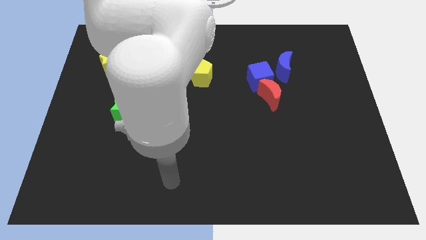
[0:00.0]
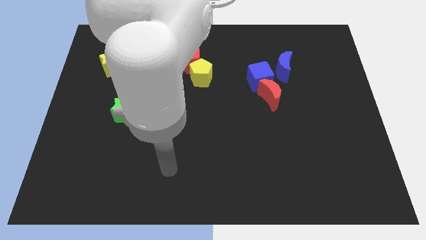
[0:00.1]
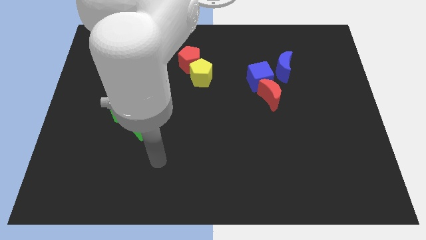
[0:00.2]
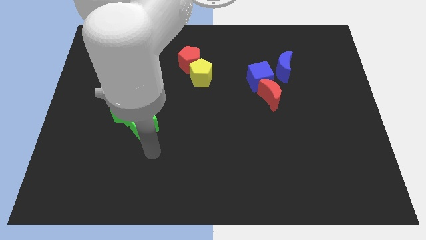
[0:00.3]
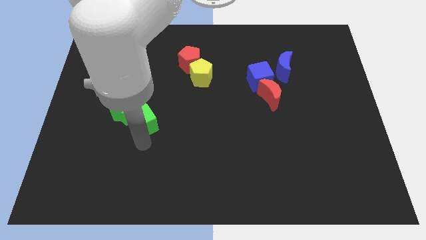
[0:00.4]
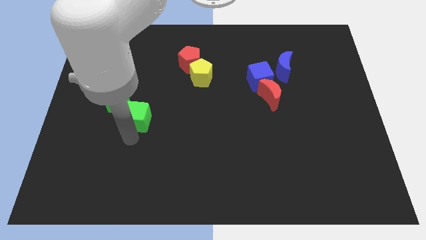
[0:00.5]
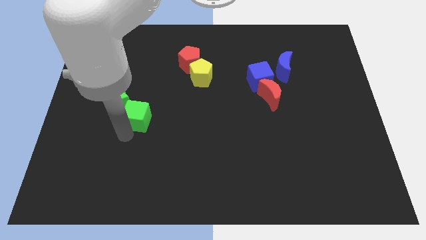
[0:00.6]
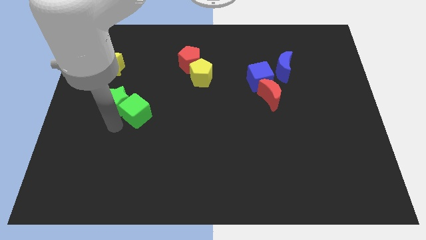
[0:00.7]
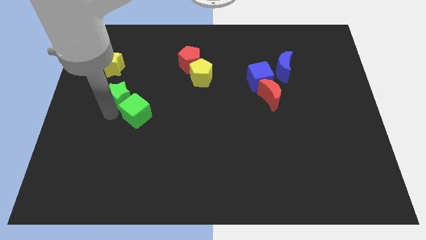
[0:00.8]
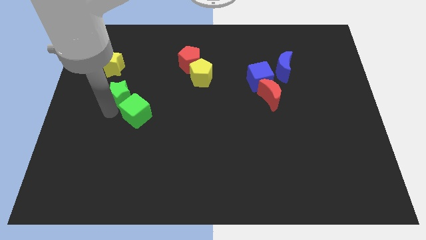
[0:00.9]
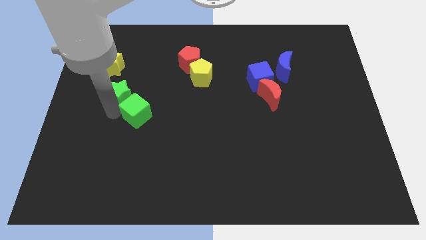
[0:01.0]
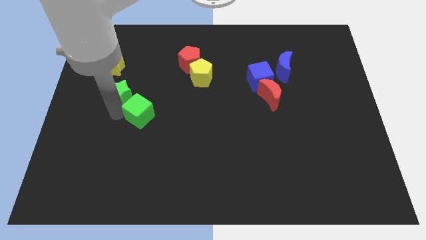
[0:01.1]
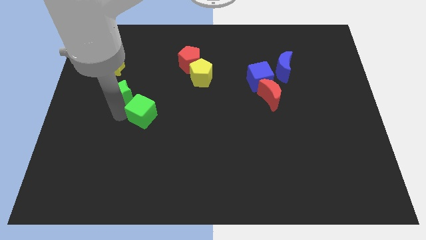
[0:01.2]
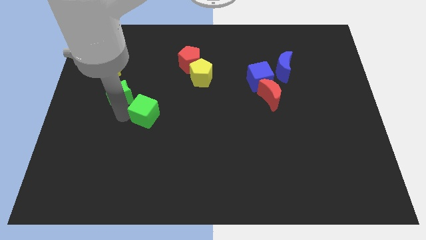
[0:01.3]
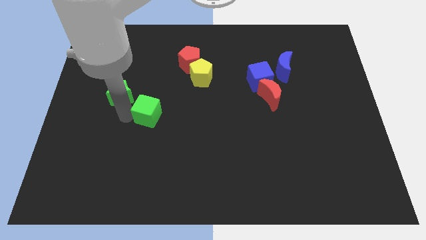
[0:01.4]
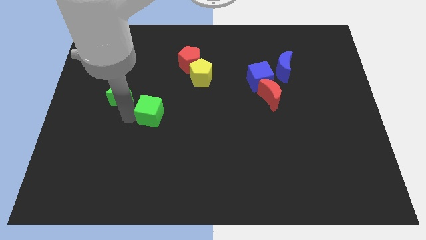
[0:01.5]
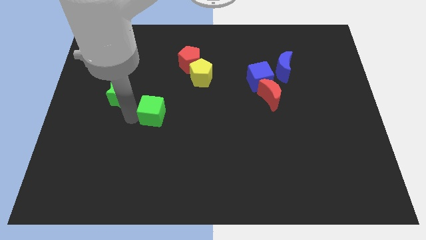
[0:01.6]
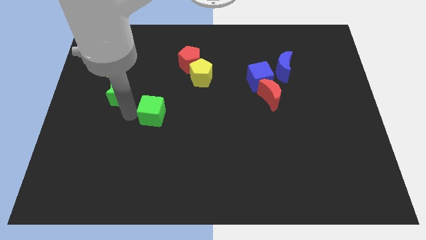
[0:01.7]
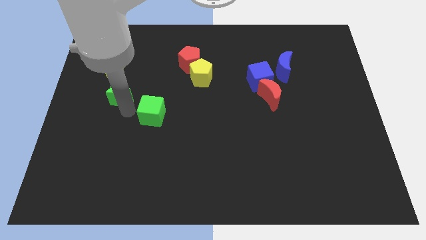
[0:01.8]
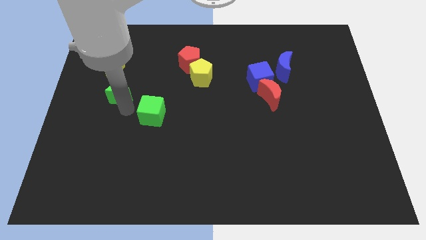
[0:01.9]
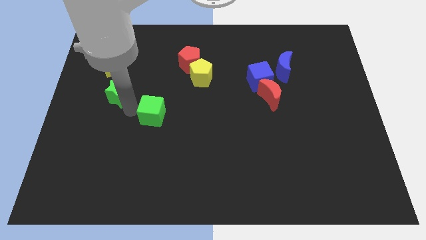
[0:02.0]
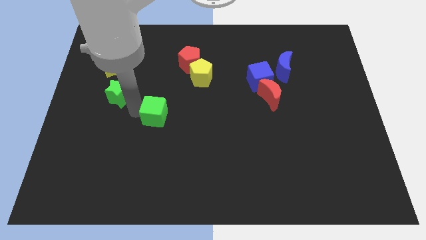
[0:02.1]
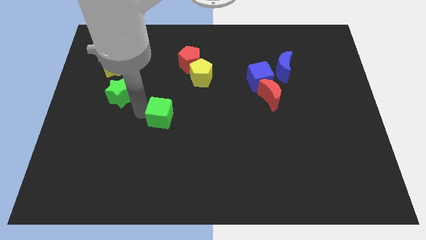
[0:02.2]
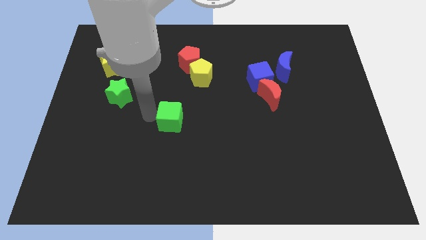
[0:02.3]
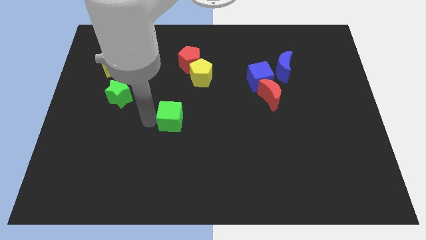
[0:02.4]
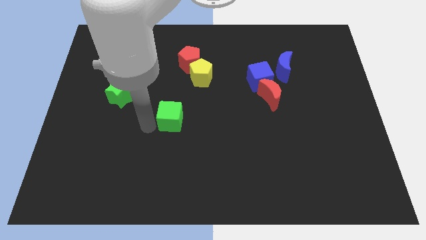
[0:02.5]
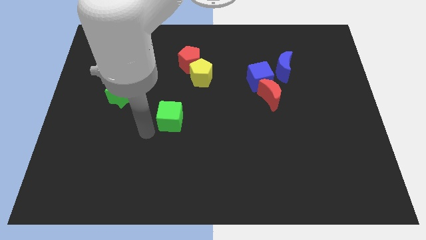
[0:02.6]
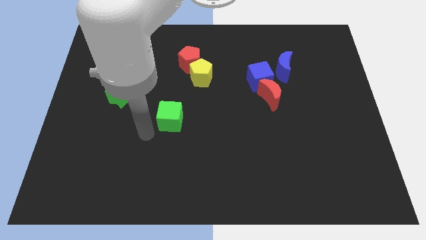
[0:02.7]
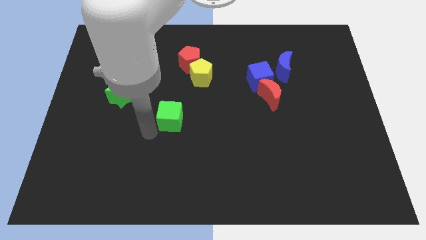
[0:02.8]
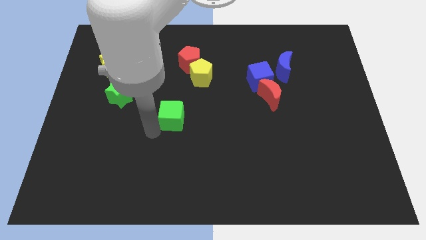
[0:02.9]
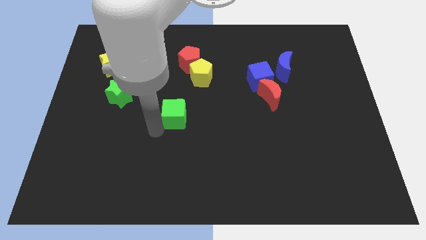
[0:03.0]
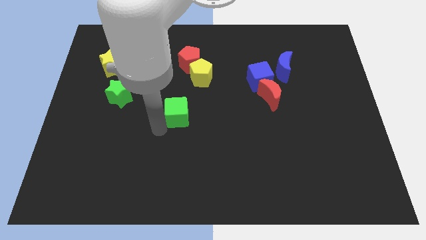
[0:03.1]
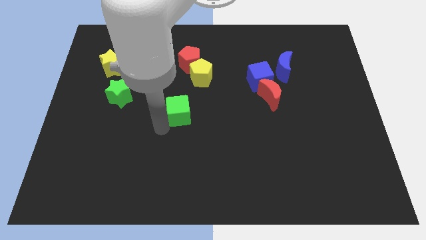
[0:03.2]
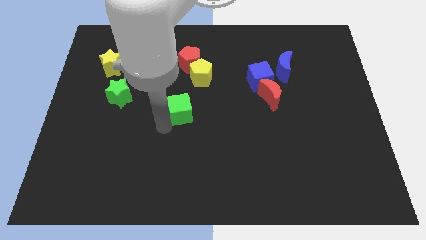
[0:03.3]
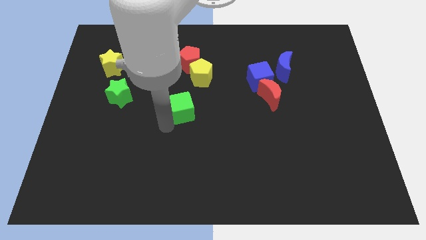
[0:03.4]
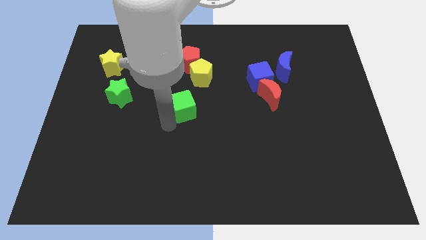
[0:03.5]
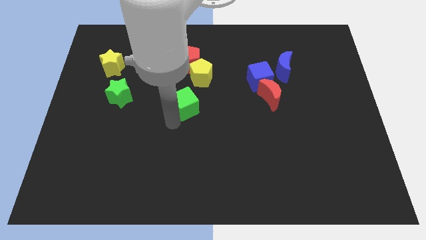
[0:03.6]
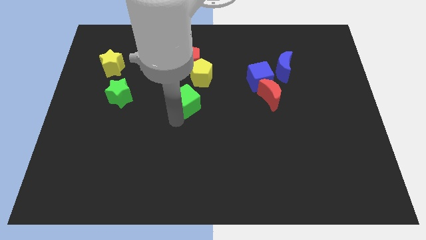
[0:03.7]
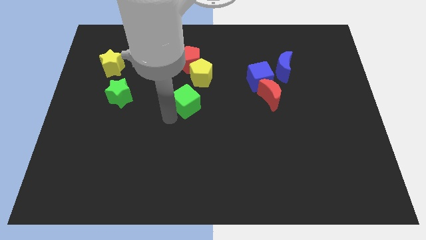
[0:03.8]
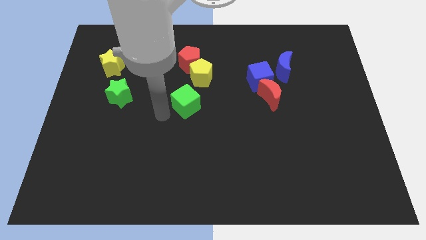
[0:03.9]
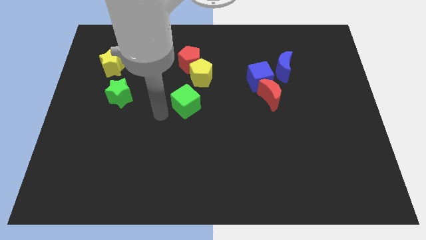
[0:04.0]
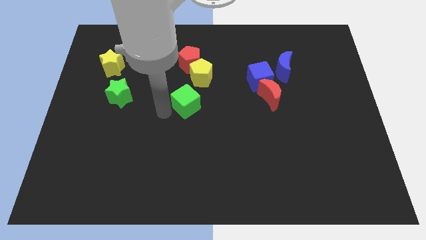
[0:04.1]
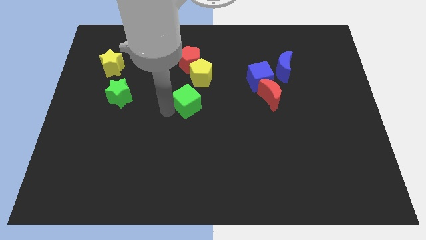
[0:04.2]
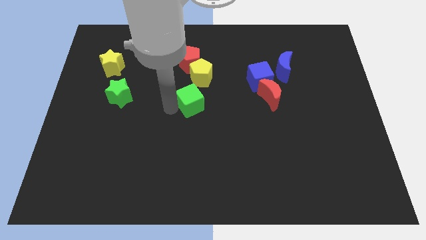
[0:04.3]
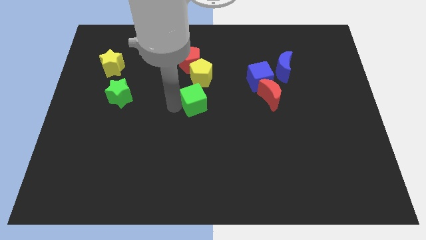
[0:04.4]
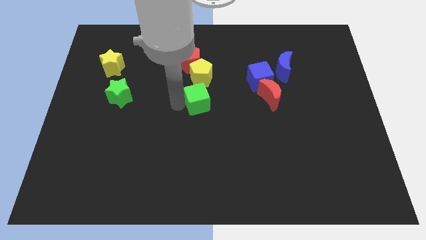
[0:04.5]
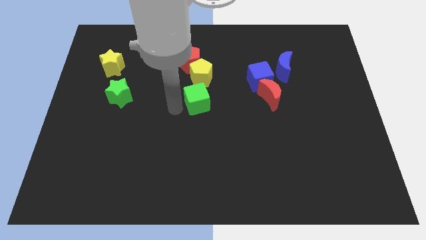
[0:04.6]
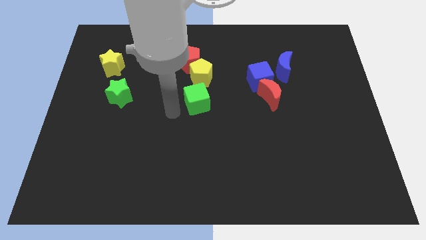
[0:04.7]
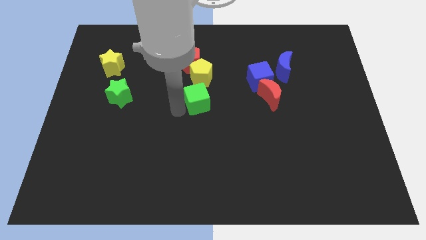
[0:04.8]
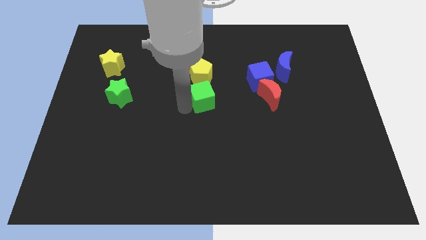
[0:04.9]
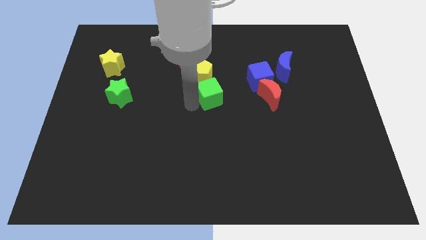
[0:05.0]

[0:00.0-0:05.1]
push the green cube to the bottom right of the yellow pentagon

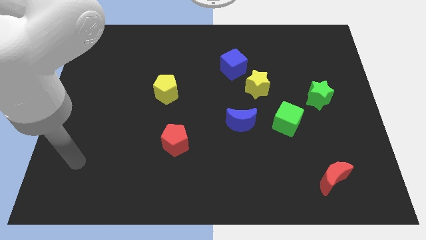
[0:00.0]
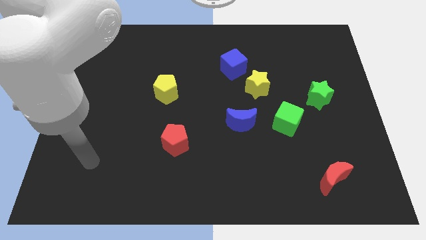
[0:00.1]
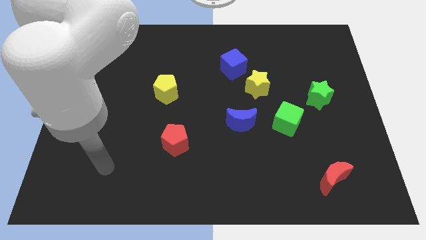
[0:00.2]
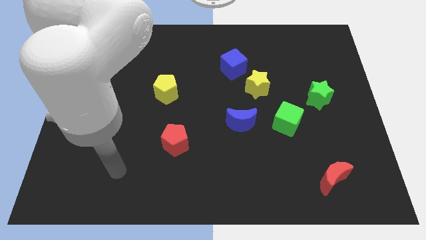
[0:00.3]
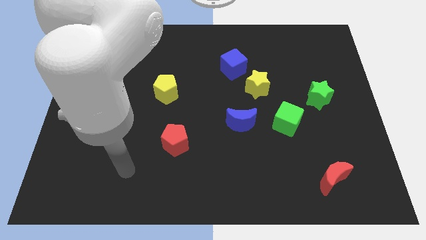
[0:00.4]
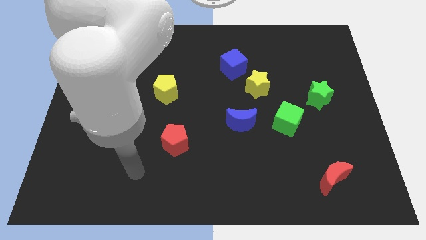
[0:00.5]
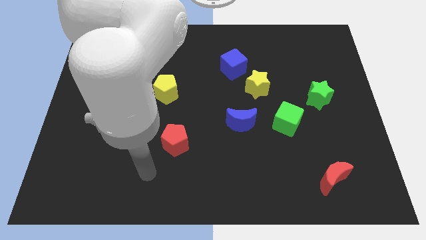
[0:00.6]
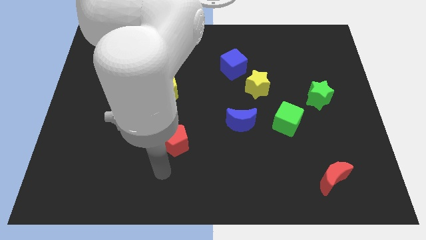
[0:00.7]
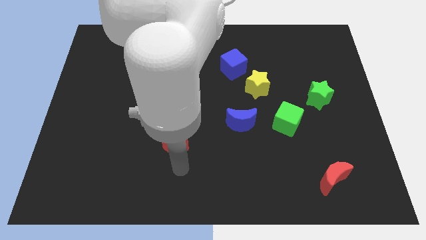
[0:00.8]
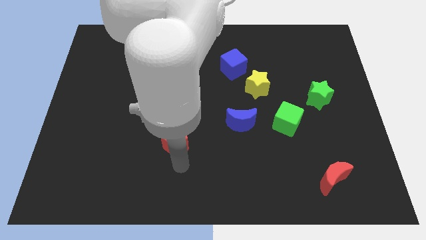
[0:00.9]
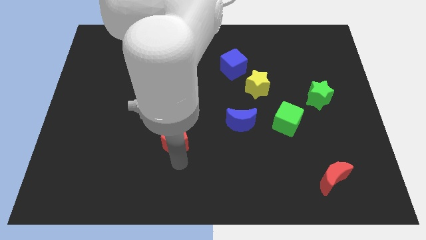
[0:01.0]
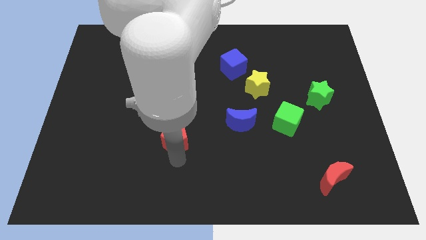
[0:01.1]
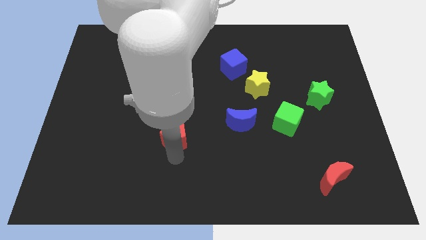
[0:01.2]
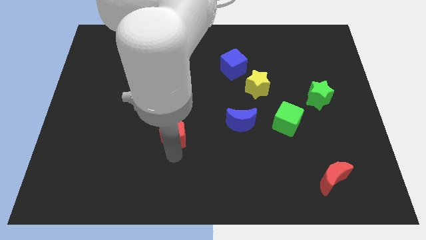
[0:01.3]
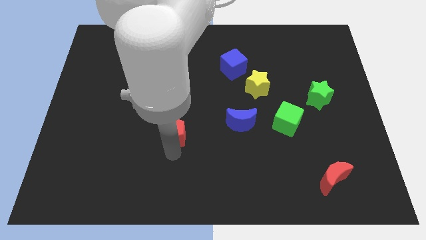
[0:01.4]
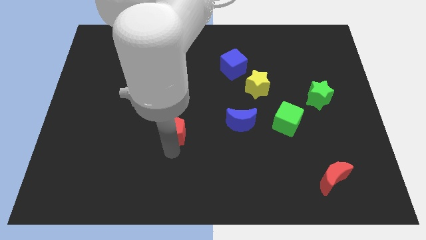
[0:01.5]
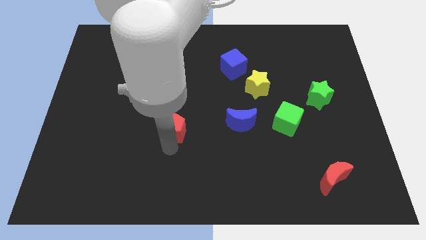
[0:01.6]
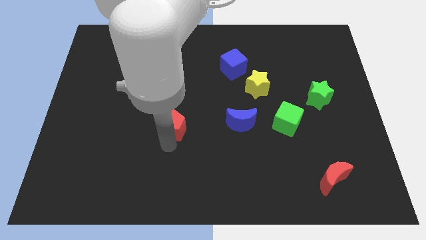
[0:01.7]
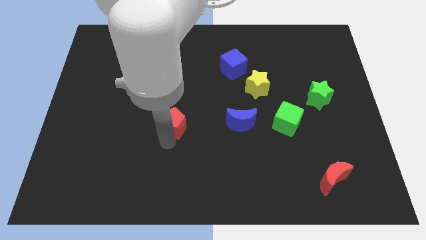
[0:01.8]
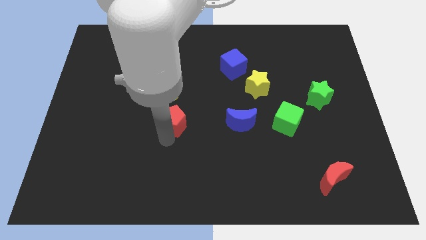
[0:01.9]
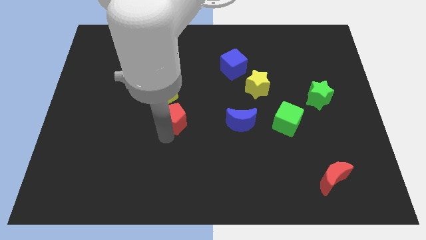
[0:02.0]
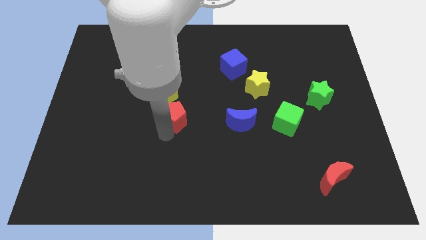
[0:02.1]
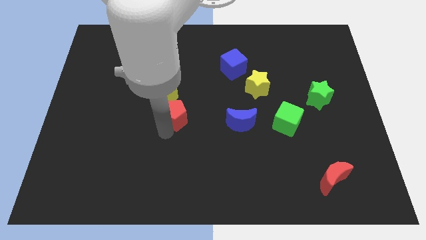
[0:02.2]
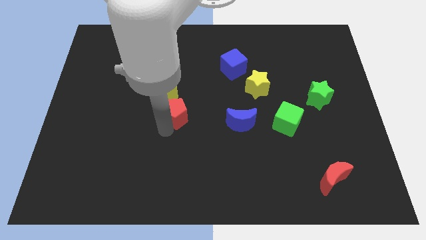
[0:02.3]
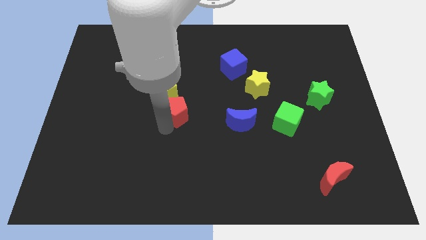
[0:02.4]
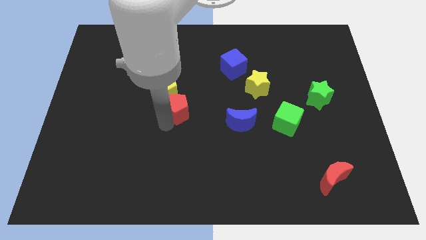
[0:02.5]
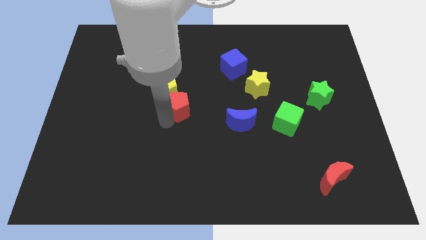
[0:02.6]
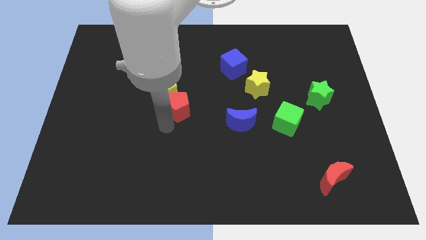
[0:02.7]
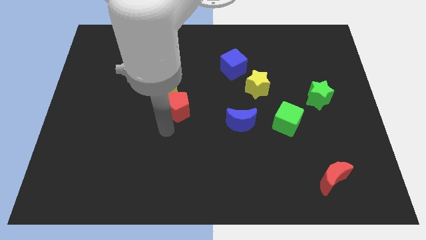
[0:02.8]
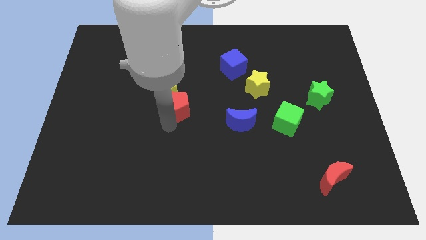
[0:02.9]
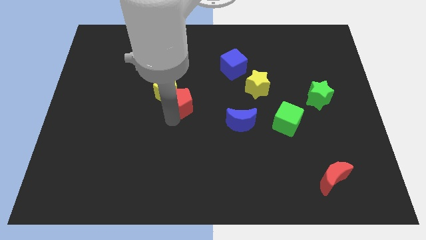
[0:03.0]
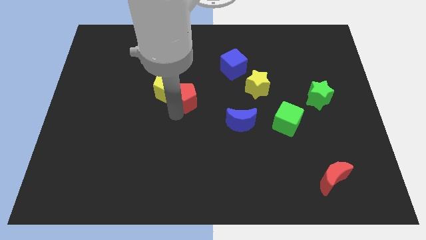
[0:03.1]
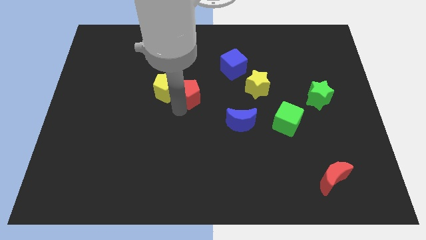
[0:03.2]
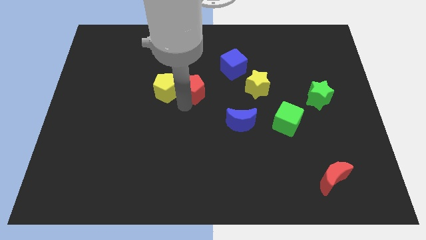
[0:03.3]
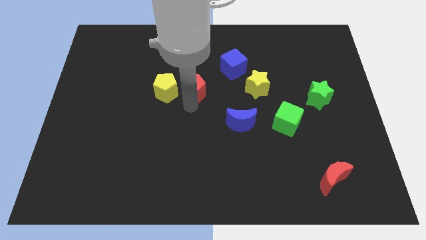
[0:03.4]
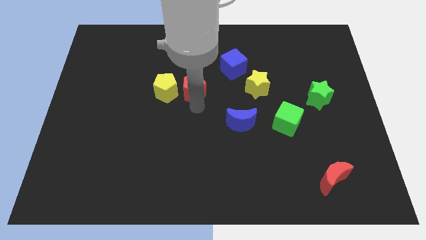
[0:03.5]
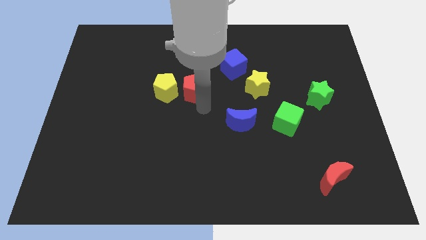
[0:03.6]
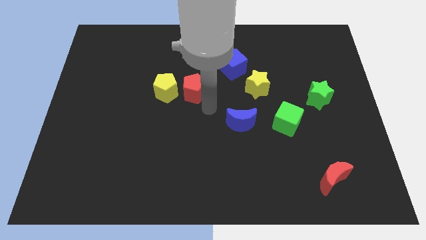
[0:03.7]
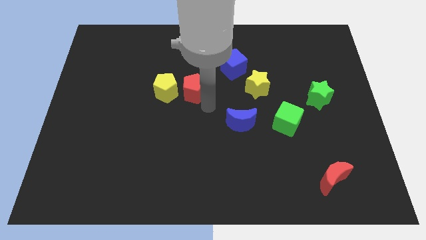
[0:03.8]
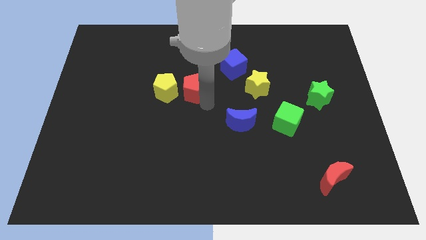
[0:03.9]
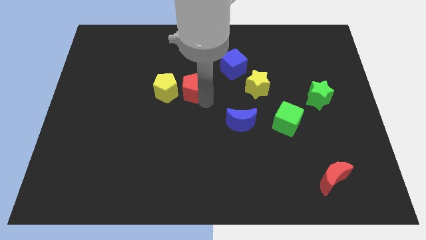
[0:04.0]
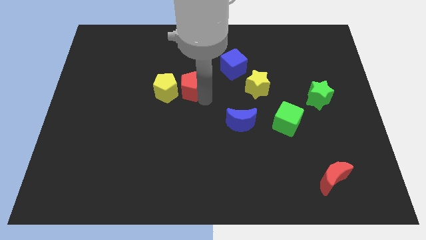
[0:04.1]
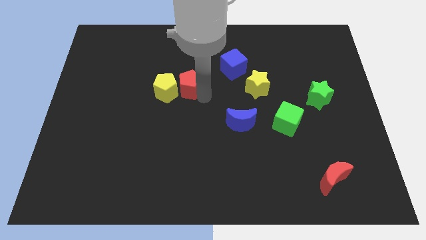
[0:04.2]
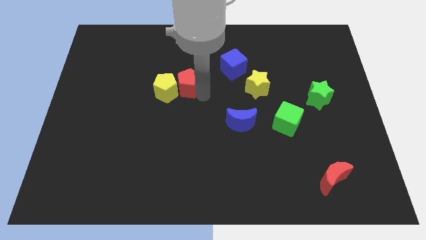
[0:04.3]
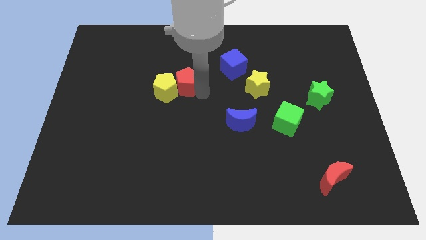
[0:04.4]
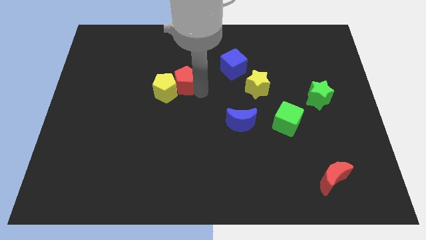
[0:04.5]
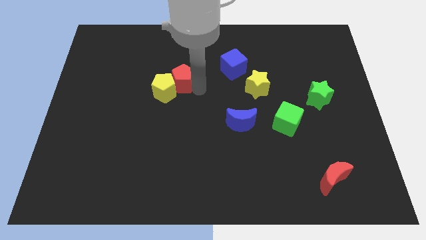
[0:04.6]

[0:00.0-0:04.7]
put the red pentagon to the top of the yellow pentagon
